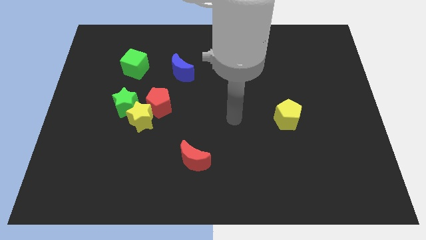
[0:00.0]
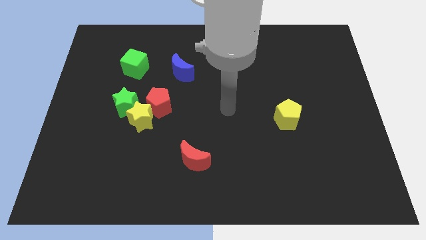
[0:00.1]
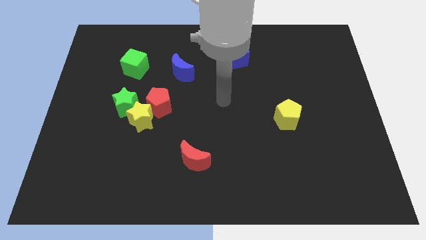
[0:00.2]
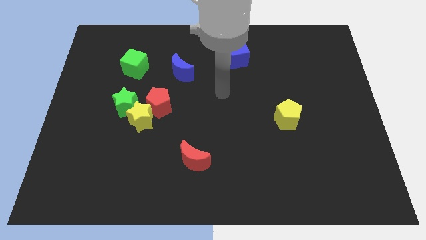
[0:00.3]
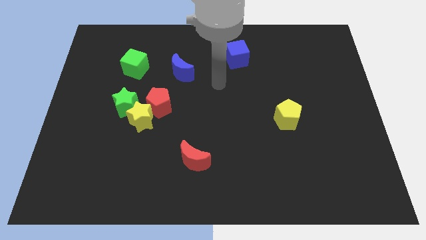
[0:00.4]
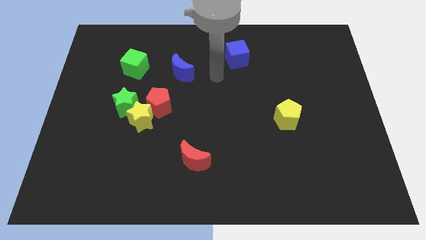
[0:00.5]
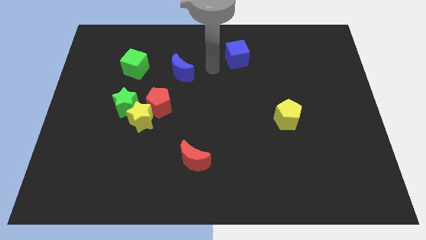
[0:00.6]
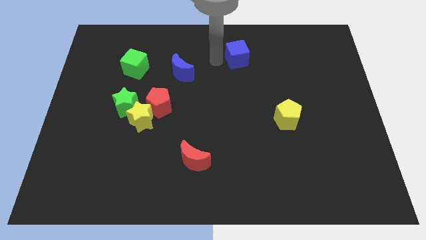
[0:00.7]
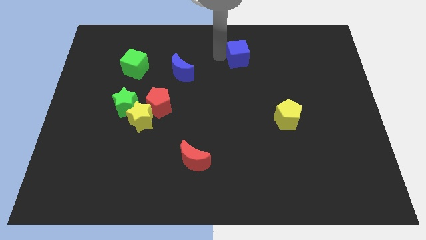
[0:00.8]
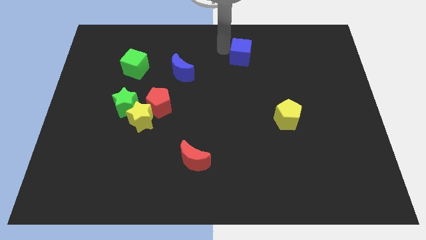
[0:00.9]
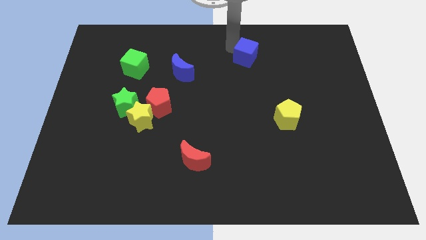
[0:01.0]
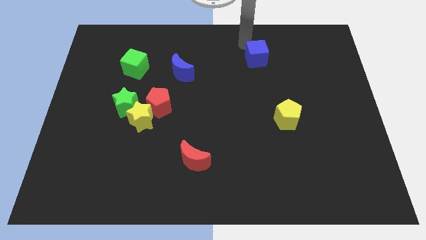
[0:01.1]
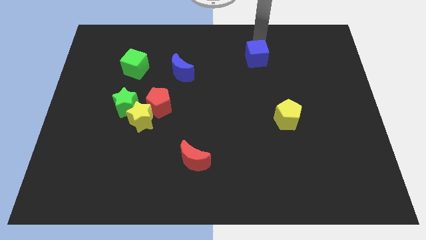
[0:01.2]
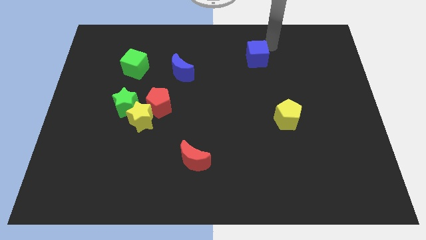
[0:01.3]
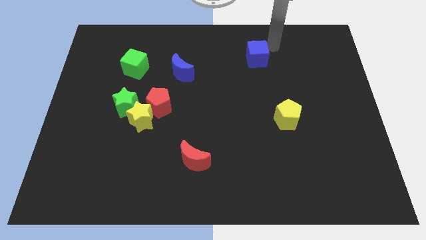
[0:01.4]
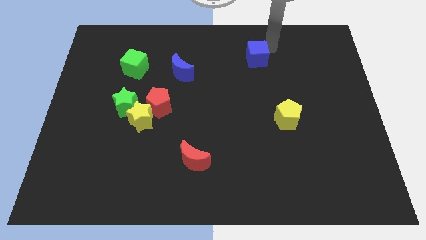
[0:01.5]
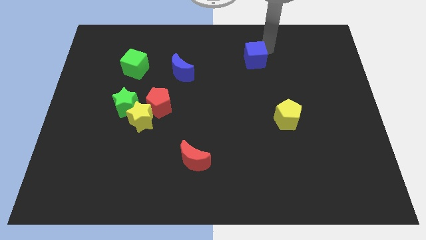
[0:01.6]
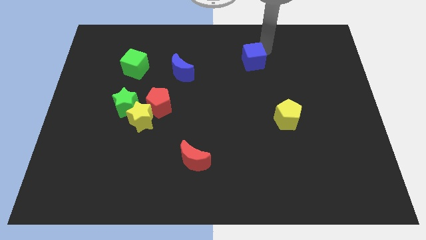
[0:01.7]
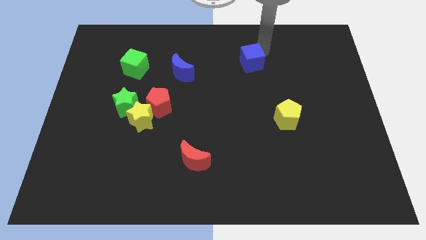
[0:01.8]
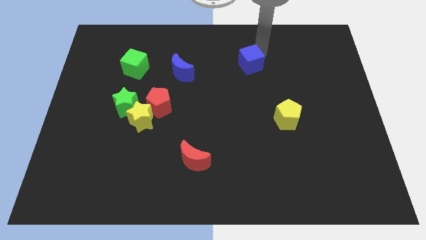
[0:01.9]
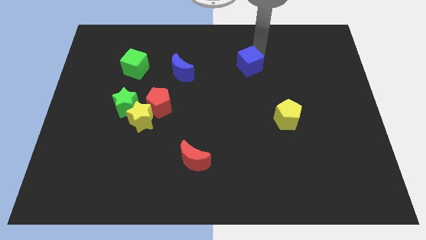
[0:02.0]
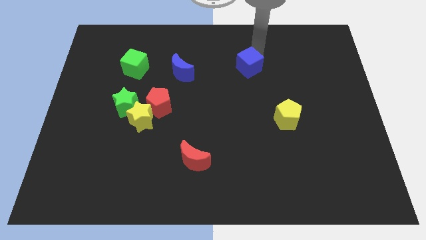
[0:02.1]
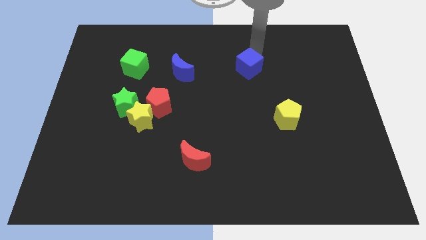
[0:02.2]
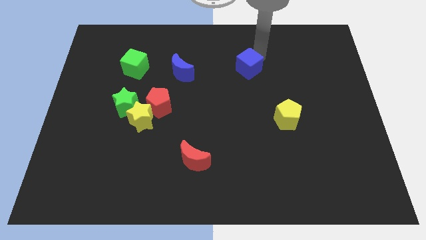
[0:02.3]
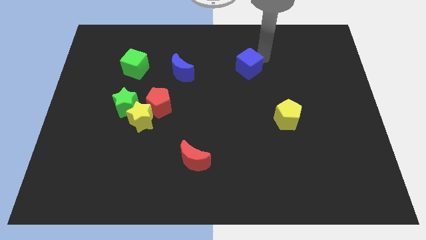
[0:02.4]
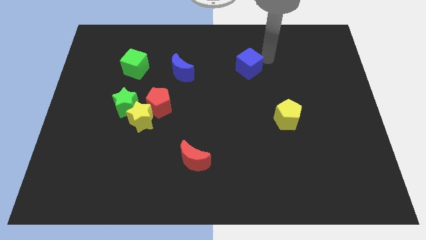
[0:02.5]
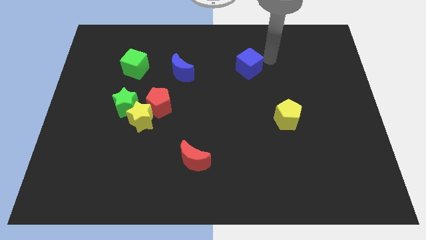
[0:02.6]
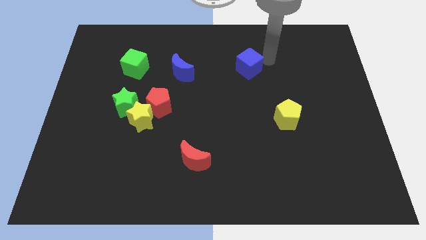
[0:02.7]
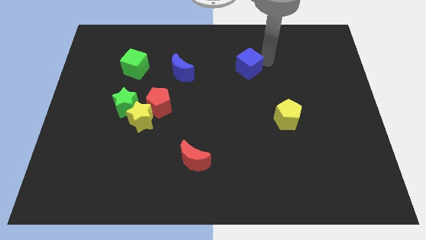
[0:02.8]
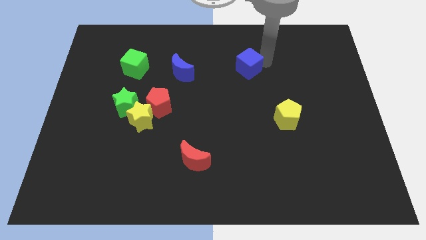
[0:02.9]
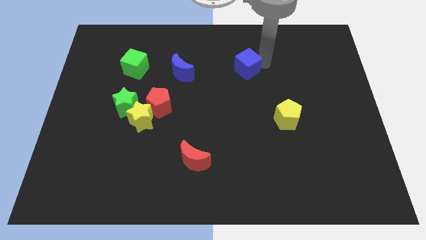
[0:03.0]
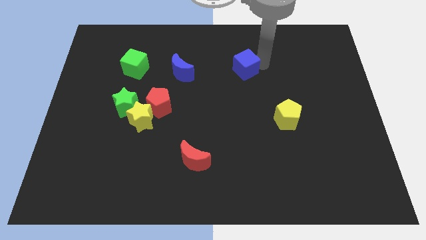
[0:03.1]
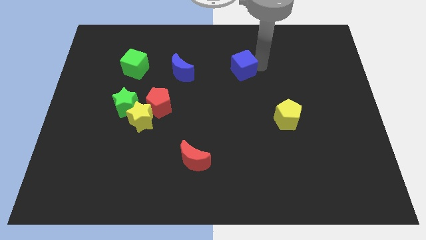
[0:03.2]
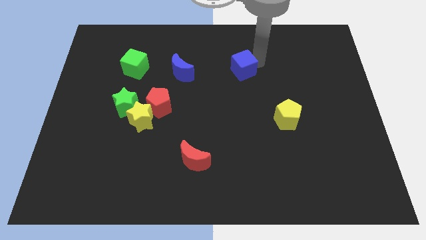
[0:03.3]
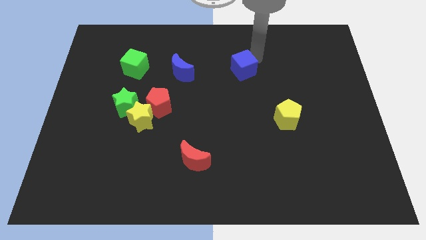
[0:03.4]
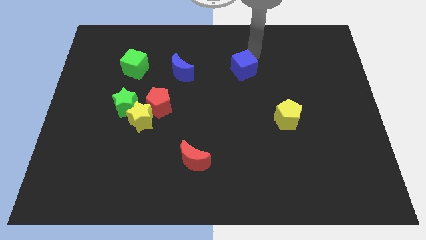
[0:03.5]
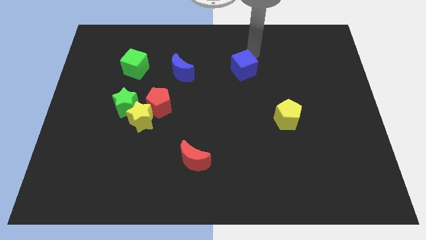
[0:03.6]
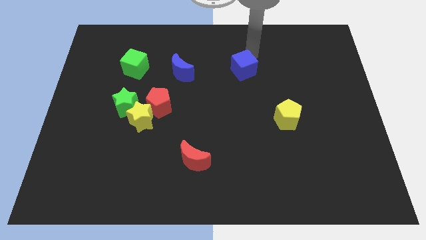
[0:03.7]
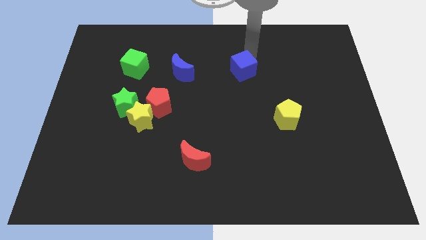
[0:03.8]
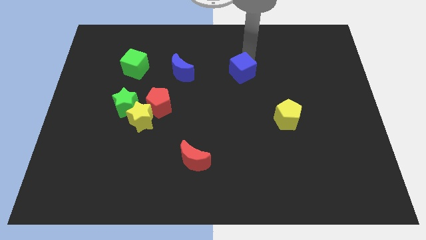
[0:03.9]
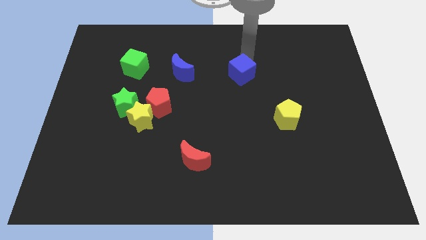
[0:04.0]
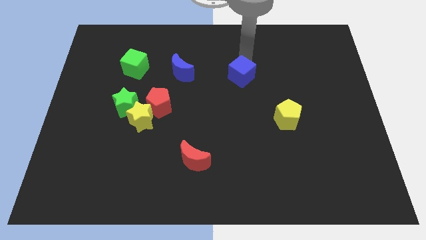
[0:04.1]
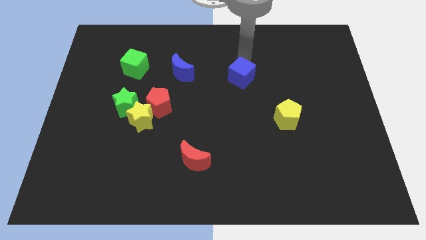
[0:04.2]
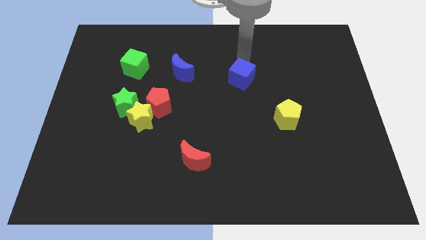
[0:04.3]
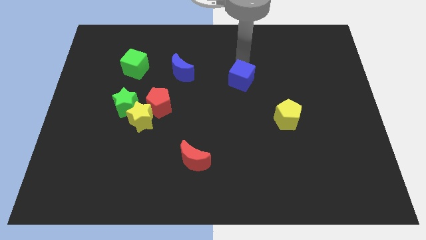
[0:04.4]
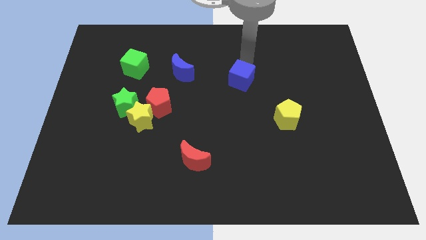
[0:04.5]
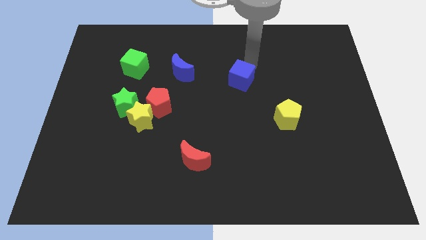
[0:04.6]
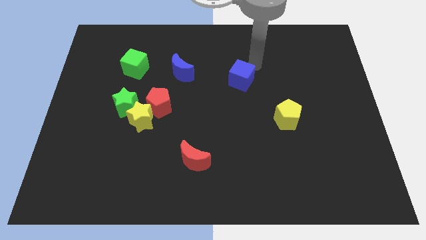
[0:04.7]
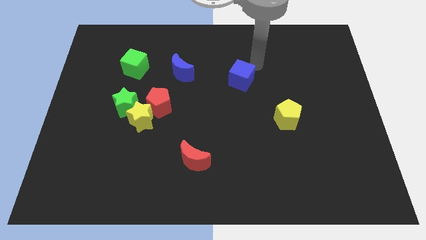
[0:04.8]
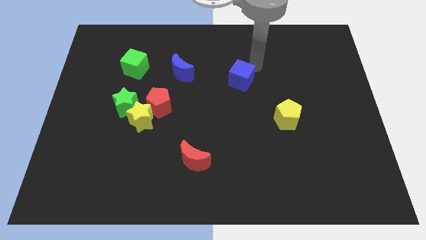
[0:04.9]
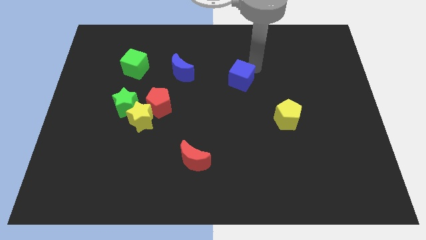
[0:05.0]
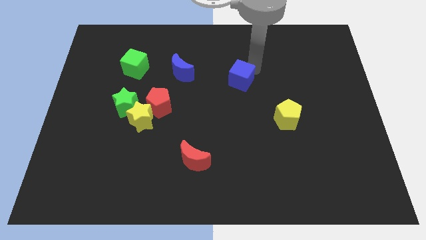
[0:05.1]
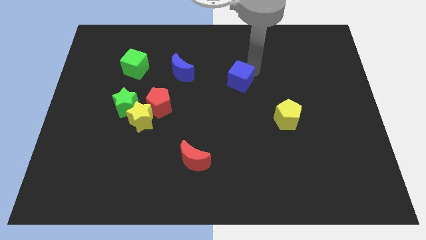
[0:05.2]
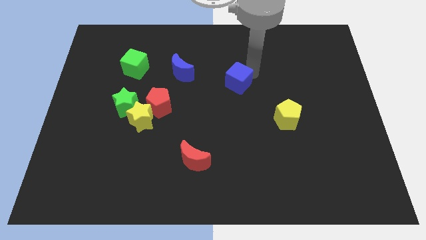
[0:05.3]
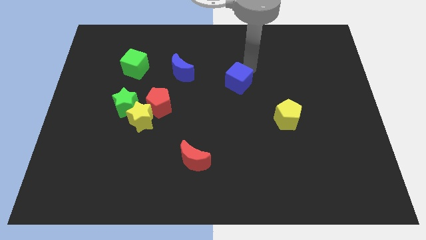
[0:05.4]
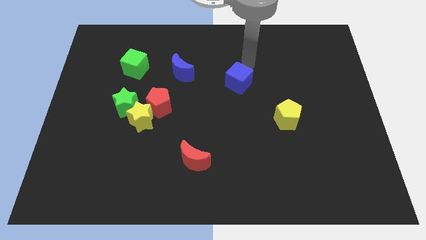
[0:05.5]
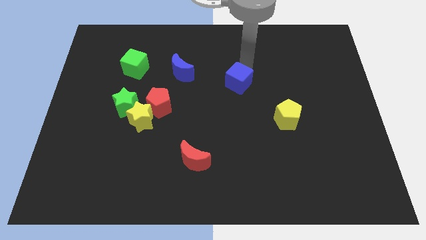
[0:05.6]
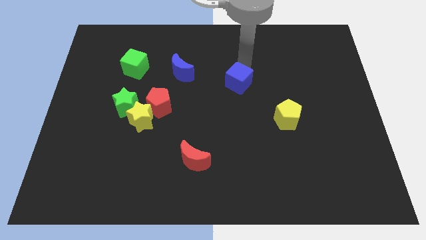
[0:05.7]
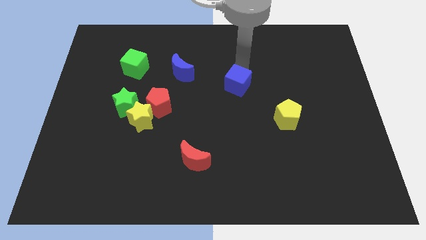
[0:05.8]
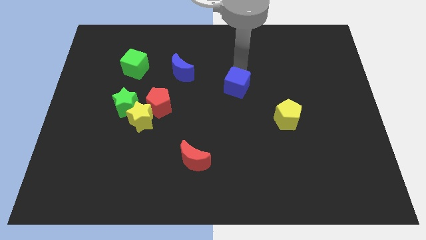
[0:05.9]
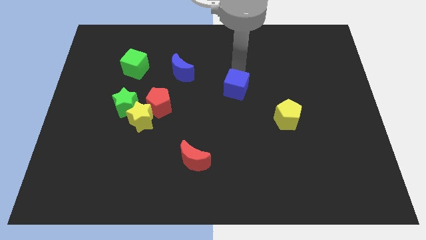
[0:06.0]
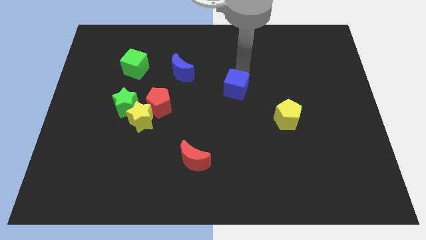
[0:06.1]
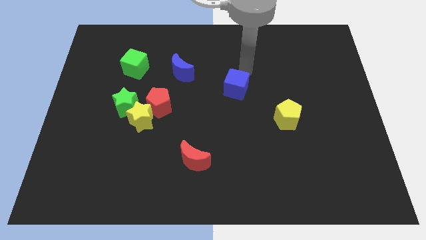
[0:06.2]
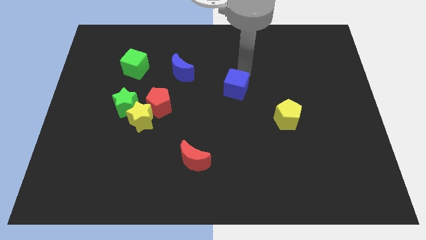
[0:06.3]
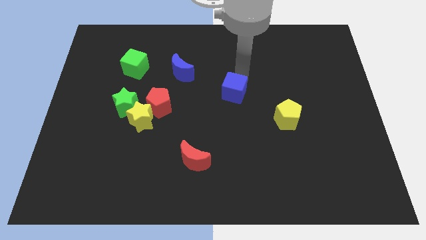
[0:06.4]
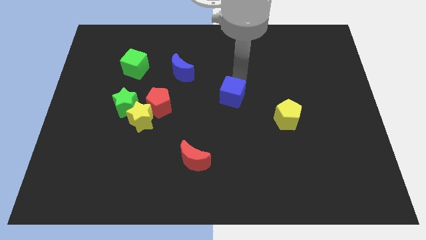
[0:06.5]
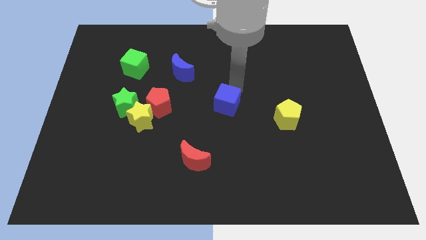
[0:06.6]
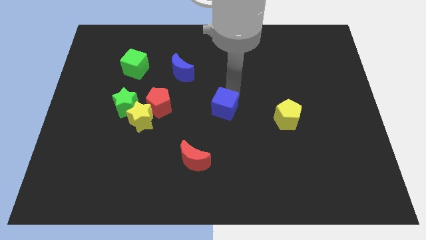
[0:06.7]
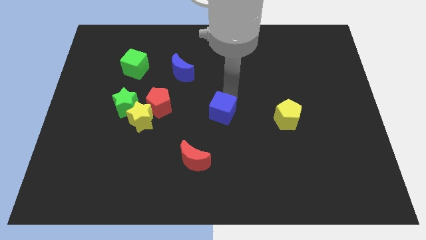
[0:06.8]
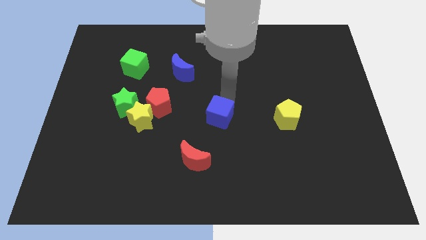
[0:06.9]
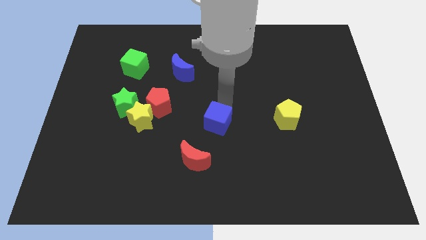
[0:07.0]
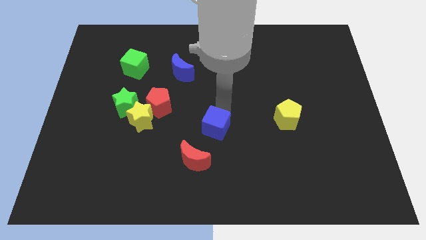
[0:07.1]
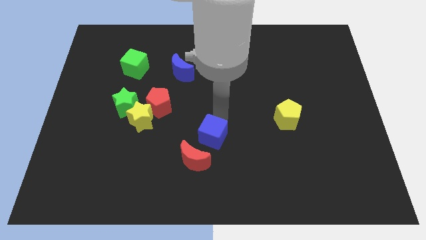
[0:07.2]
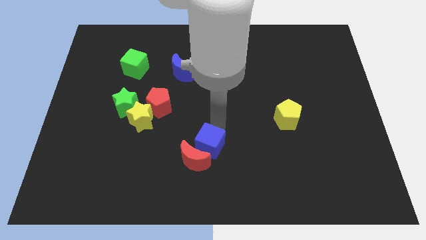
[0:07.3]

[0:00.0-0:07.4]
move the blue cube next to the red moon
